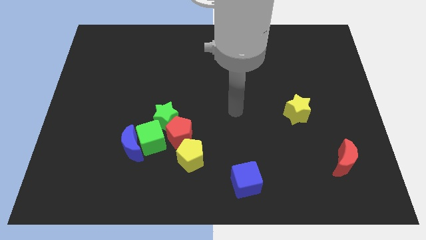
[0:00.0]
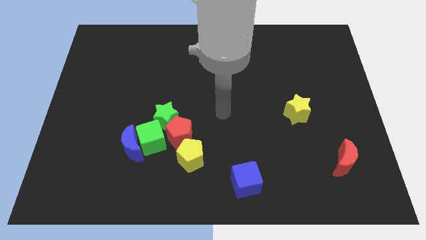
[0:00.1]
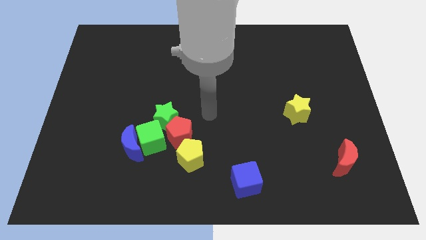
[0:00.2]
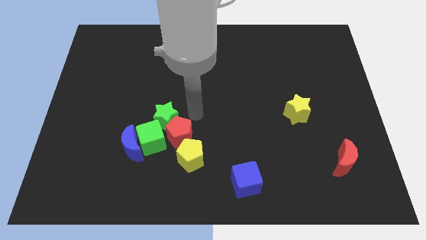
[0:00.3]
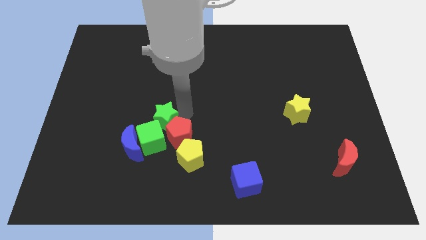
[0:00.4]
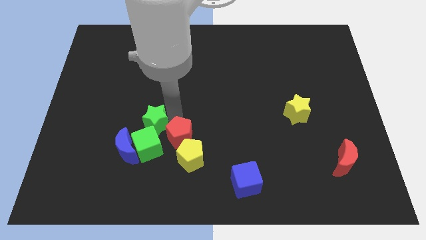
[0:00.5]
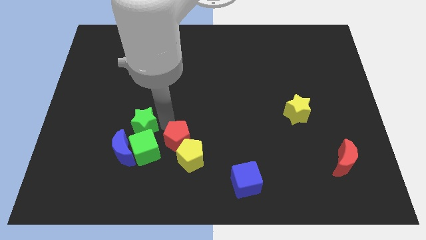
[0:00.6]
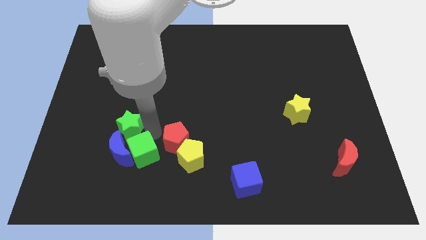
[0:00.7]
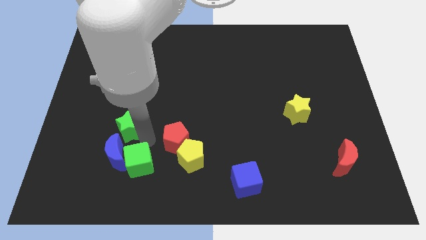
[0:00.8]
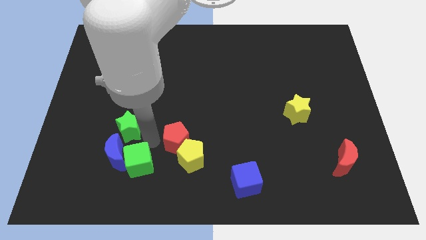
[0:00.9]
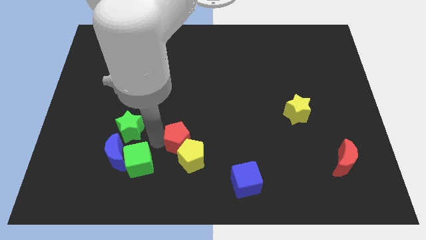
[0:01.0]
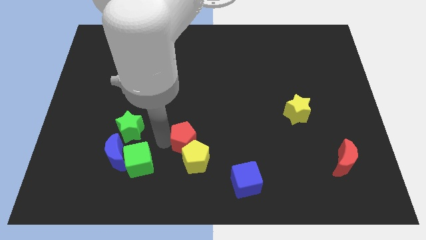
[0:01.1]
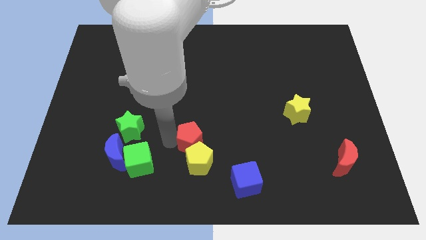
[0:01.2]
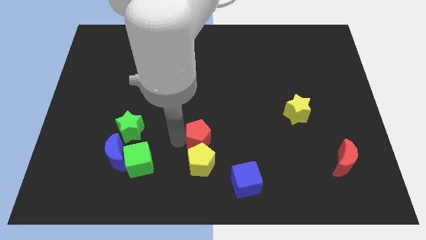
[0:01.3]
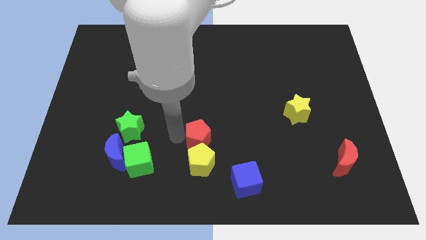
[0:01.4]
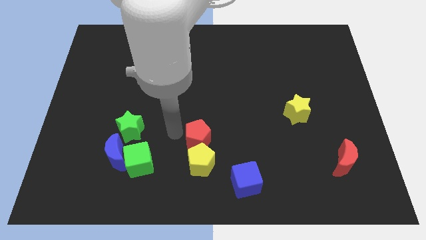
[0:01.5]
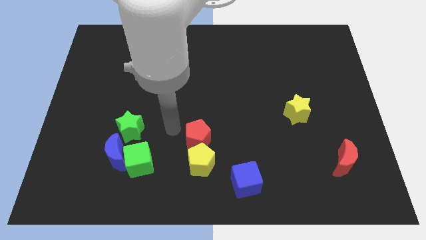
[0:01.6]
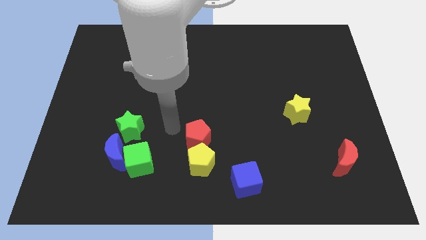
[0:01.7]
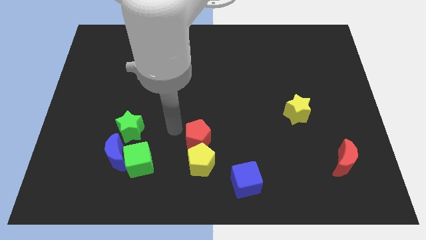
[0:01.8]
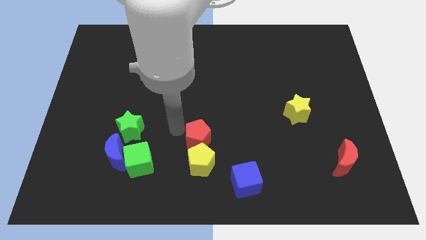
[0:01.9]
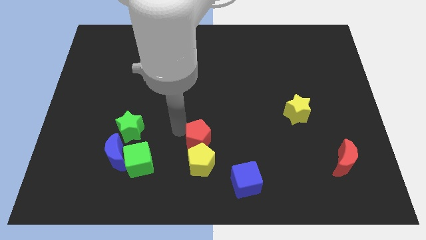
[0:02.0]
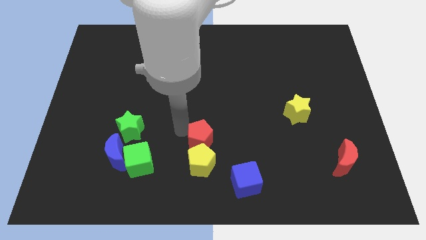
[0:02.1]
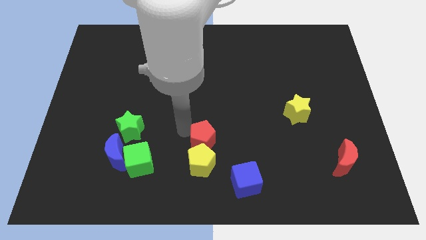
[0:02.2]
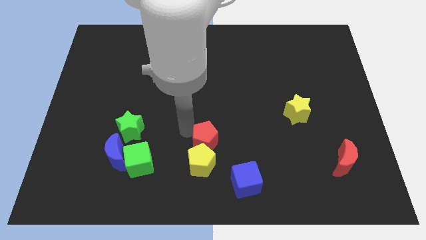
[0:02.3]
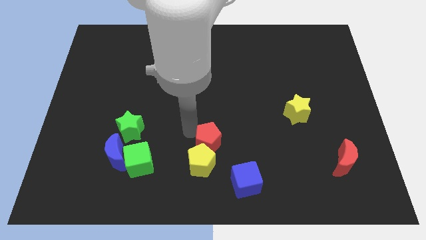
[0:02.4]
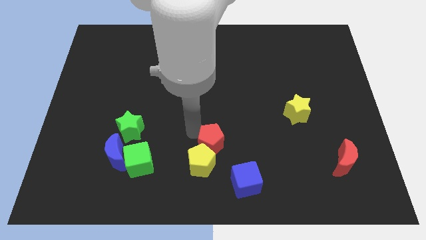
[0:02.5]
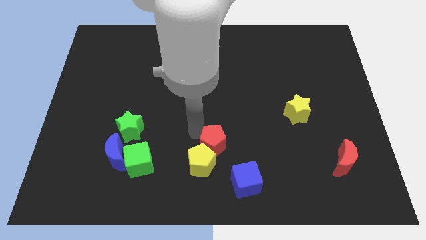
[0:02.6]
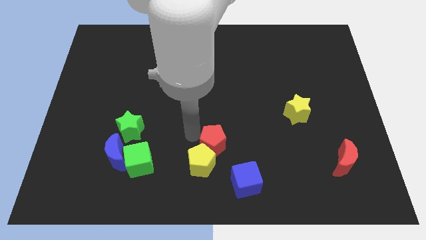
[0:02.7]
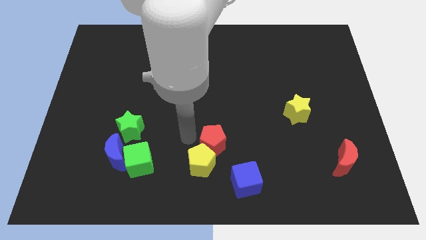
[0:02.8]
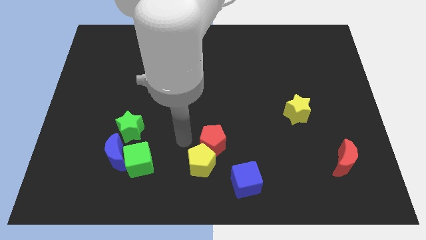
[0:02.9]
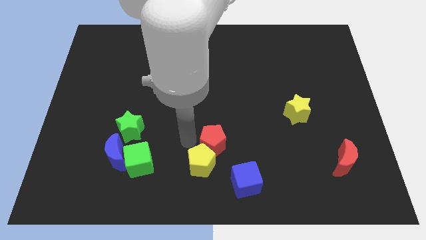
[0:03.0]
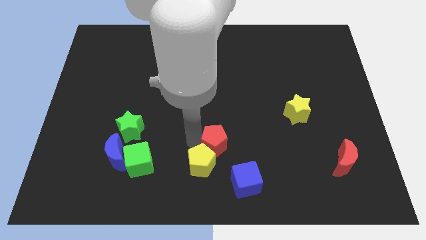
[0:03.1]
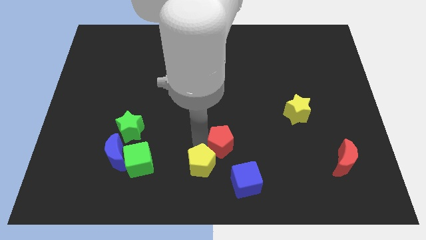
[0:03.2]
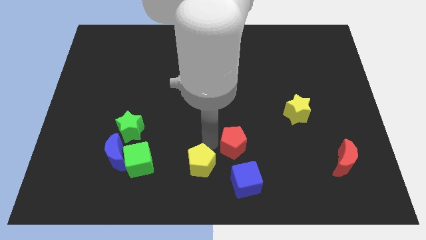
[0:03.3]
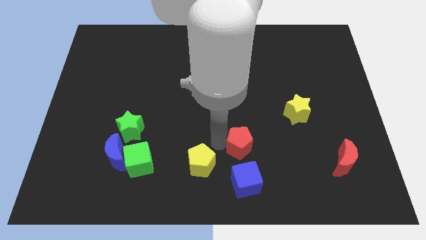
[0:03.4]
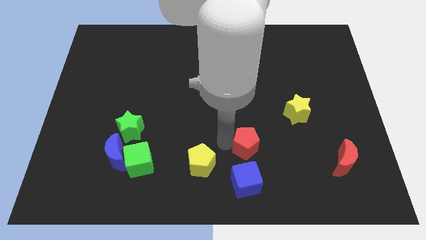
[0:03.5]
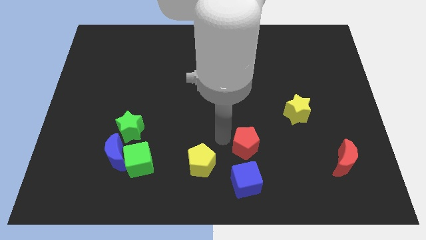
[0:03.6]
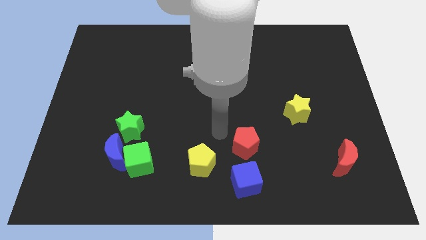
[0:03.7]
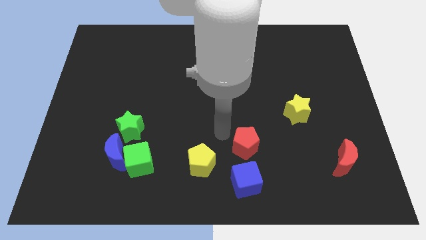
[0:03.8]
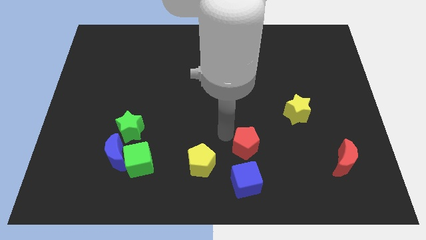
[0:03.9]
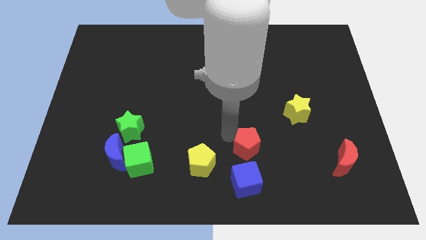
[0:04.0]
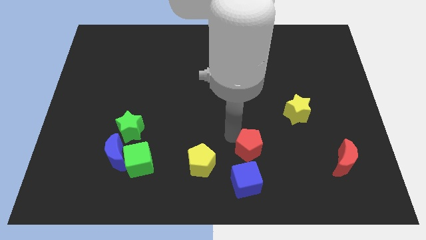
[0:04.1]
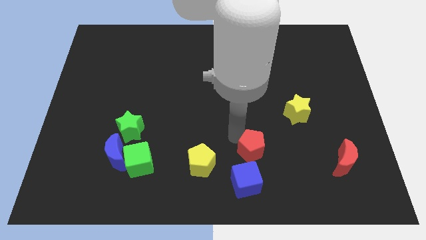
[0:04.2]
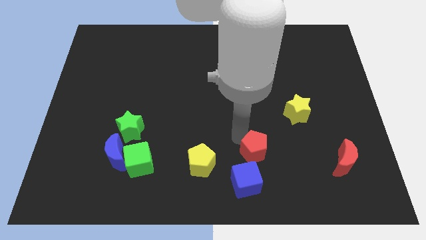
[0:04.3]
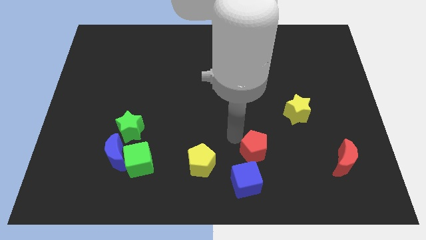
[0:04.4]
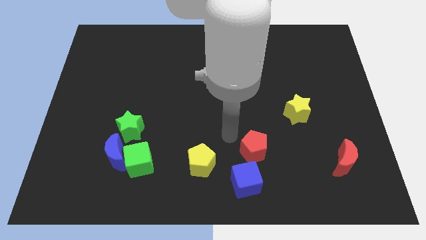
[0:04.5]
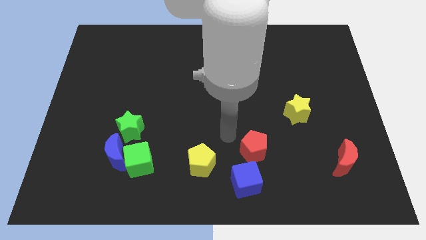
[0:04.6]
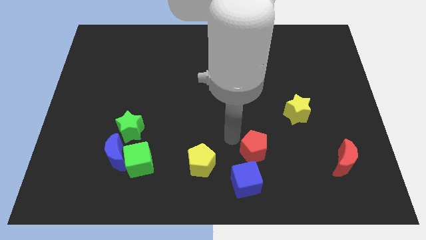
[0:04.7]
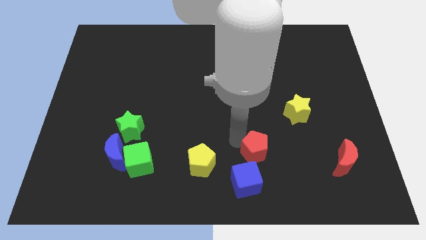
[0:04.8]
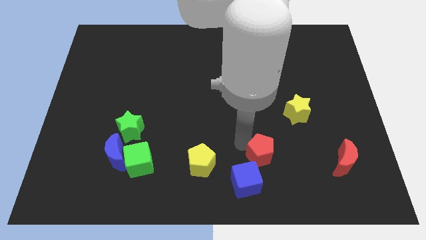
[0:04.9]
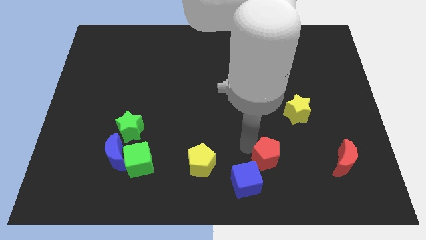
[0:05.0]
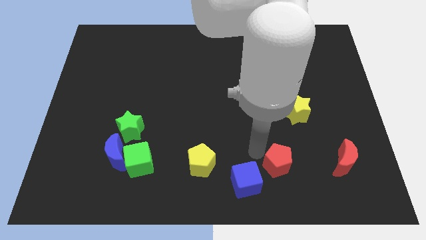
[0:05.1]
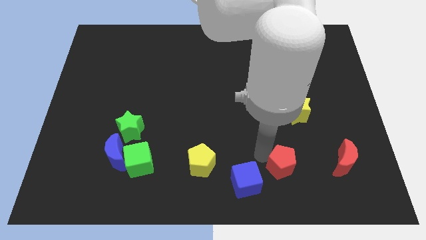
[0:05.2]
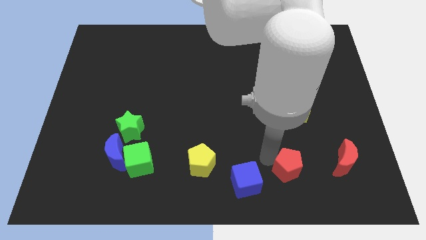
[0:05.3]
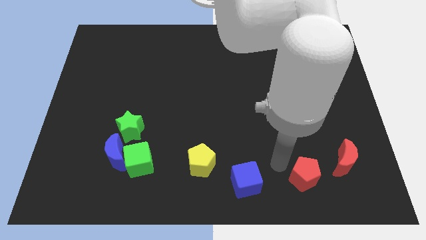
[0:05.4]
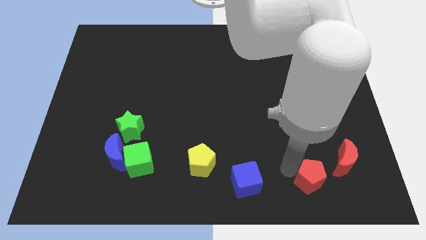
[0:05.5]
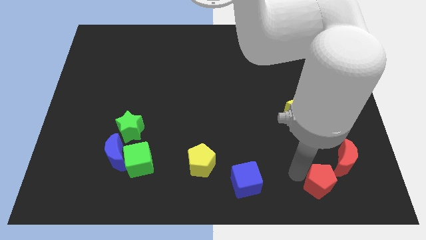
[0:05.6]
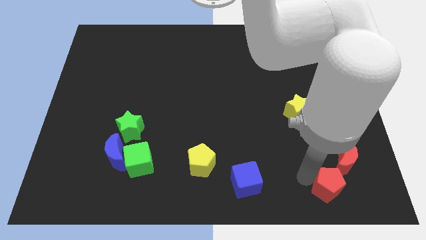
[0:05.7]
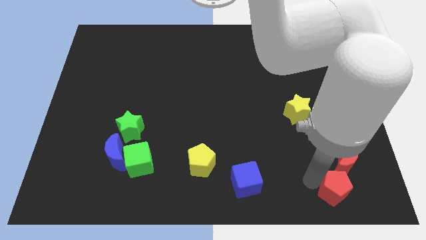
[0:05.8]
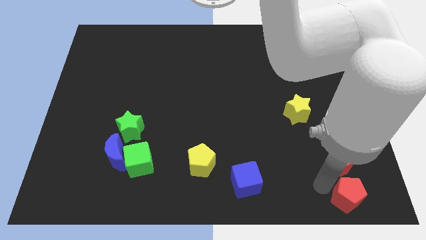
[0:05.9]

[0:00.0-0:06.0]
push the red pentagon to the bottom right corner

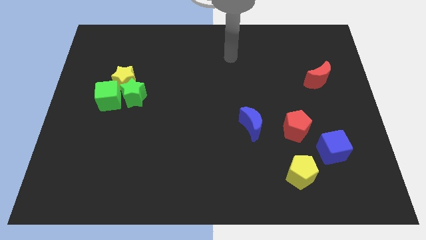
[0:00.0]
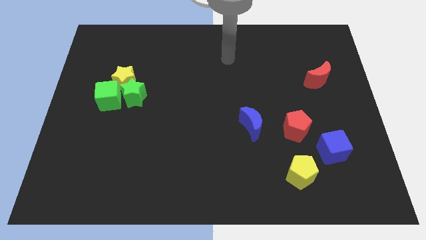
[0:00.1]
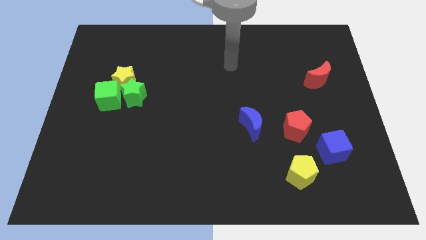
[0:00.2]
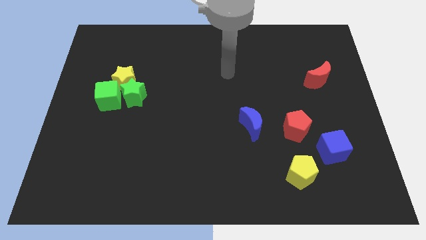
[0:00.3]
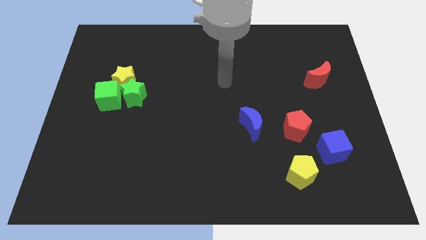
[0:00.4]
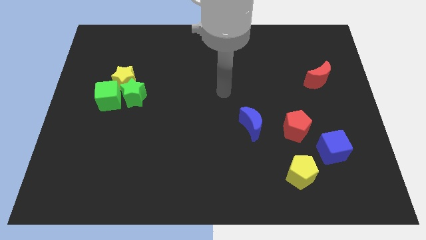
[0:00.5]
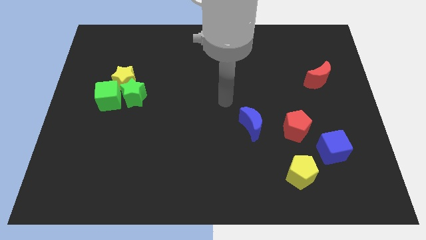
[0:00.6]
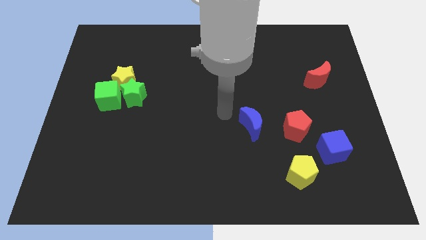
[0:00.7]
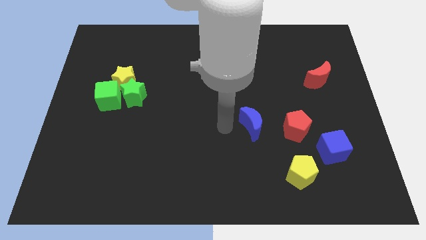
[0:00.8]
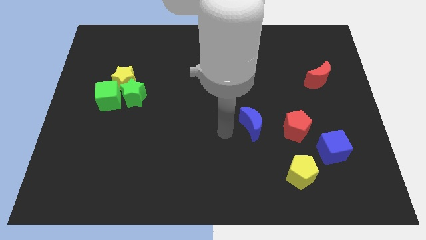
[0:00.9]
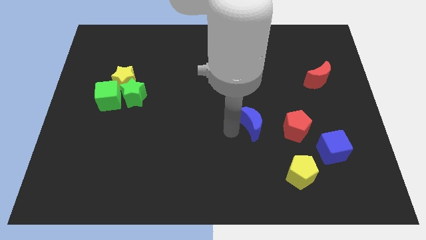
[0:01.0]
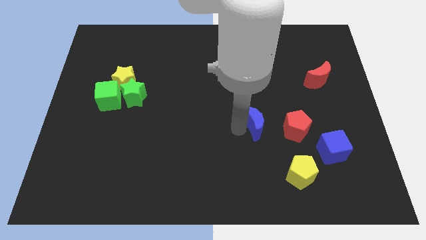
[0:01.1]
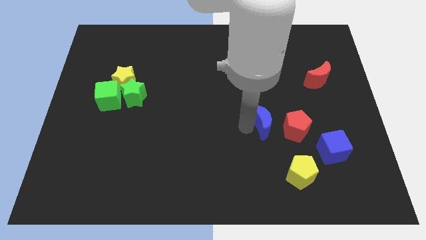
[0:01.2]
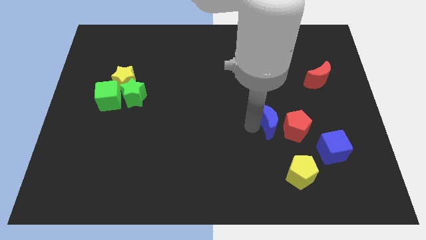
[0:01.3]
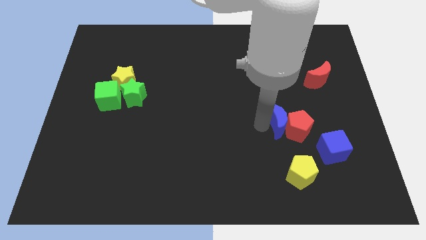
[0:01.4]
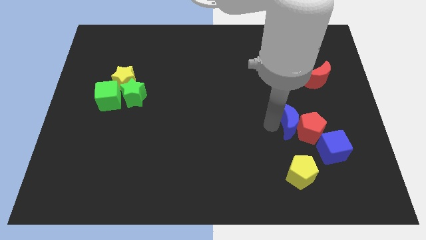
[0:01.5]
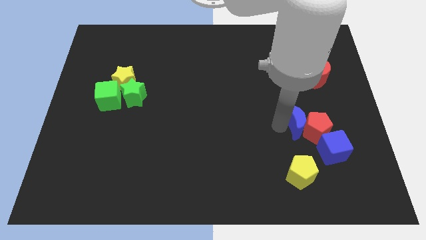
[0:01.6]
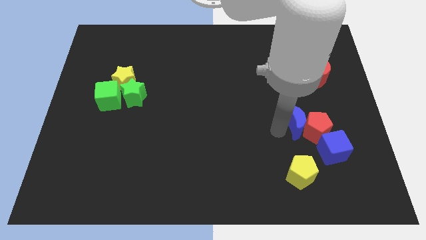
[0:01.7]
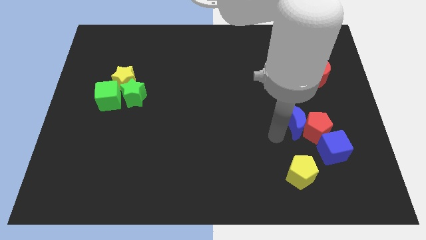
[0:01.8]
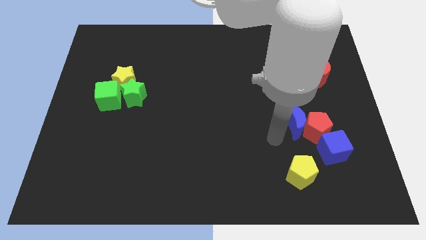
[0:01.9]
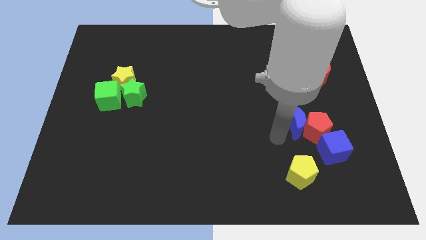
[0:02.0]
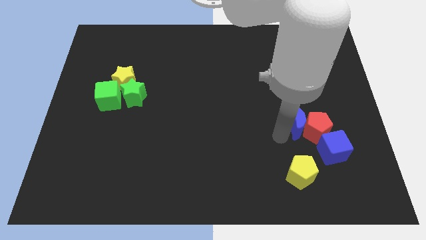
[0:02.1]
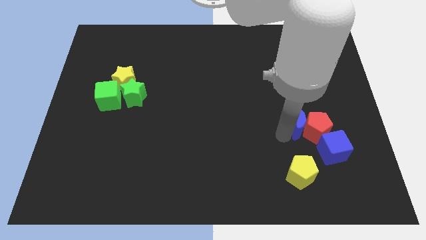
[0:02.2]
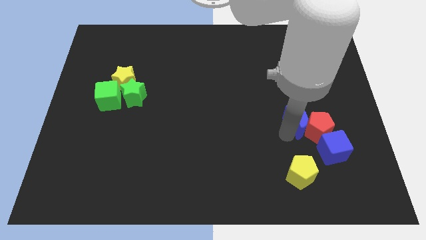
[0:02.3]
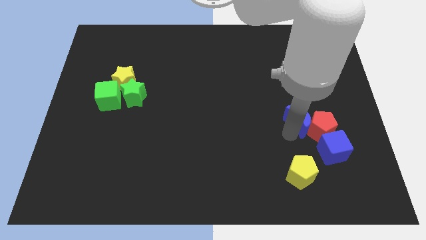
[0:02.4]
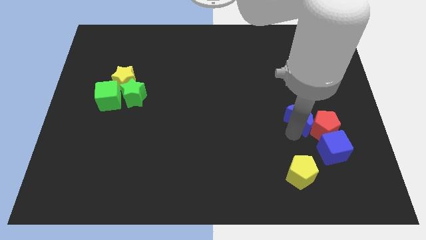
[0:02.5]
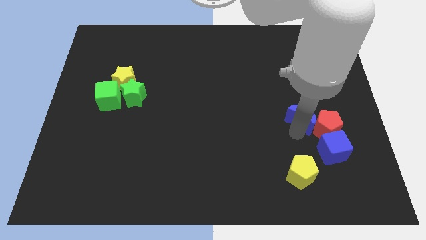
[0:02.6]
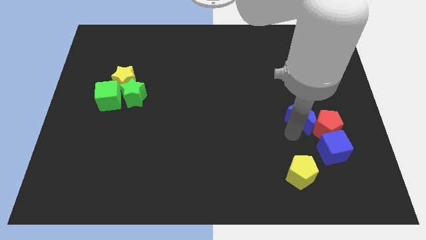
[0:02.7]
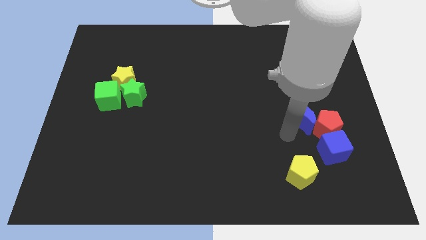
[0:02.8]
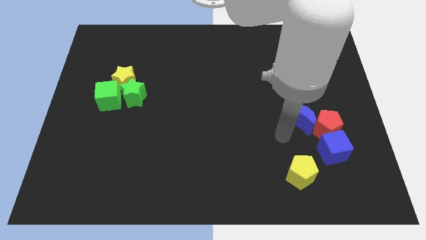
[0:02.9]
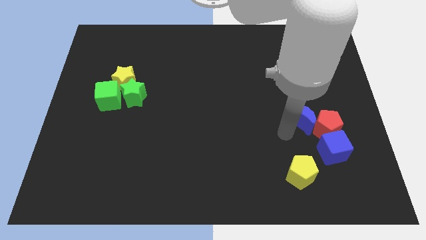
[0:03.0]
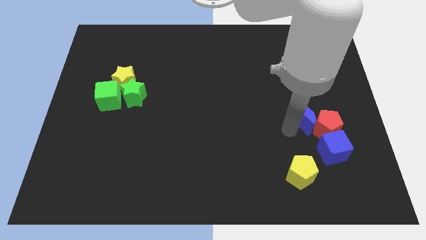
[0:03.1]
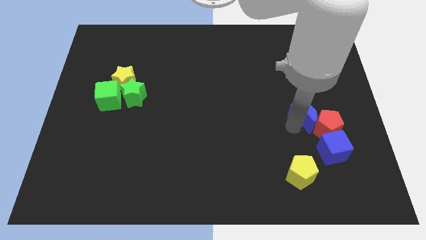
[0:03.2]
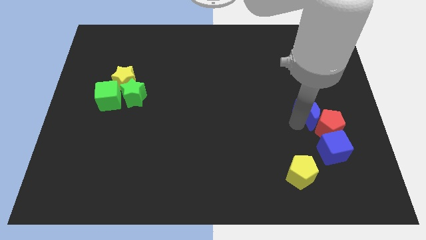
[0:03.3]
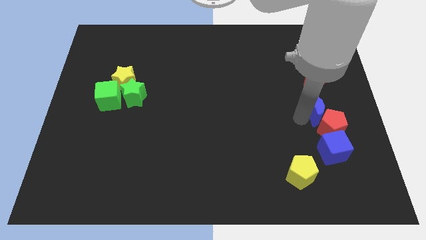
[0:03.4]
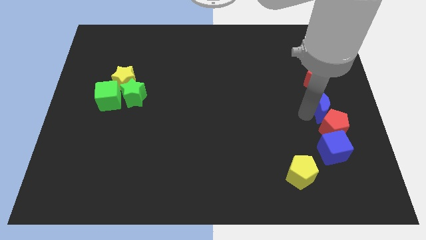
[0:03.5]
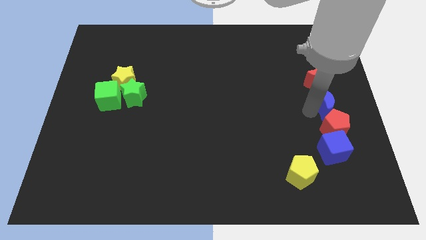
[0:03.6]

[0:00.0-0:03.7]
move the blue moon to the right side
